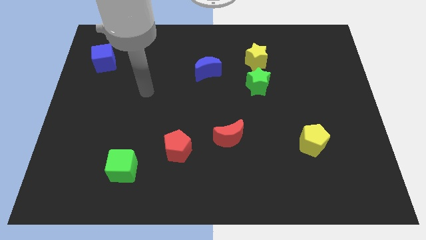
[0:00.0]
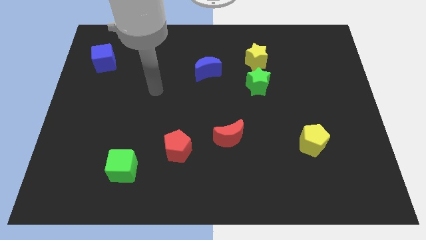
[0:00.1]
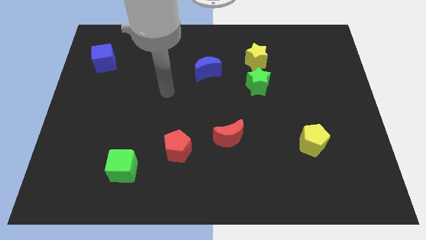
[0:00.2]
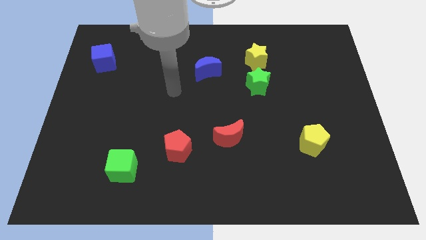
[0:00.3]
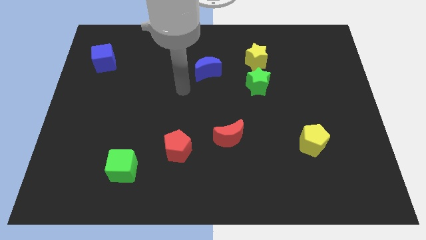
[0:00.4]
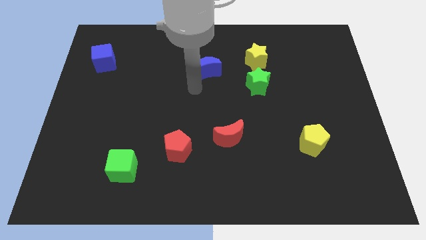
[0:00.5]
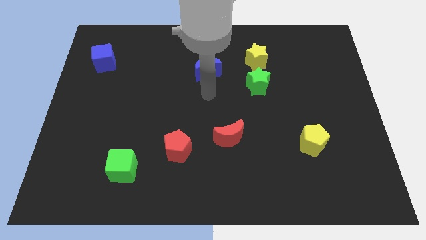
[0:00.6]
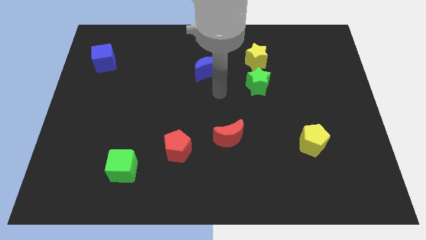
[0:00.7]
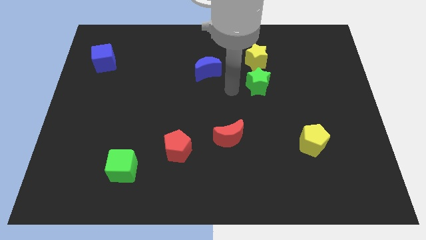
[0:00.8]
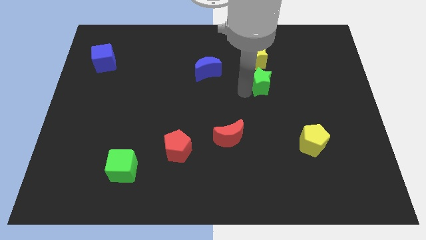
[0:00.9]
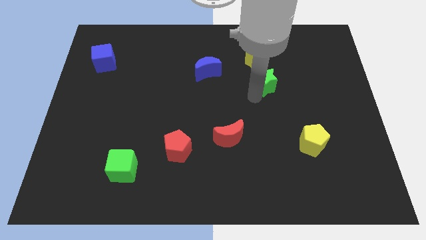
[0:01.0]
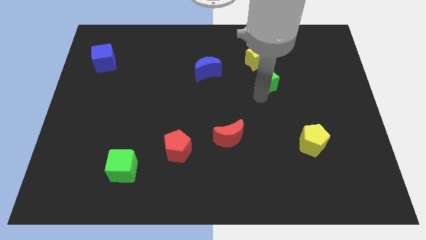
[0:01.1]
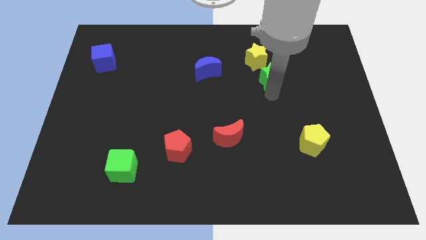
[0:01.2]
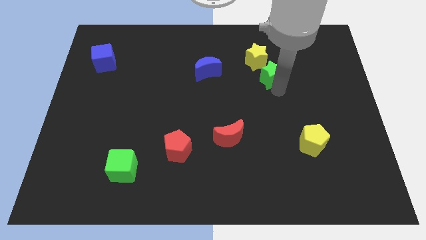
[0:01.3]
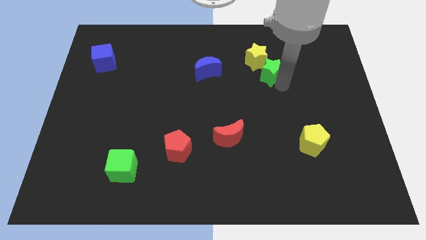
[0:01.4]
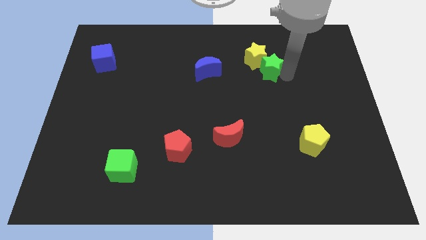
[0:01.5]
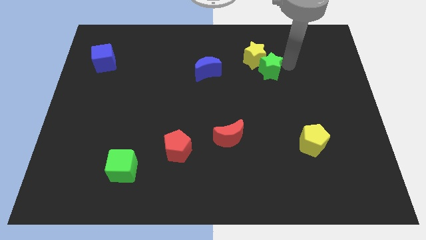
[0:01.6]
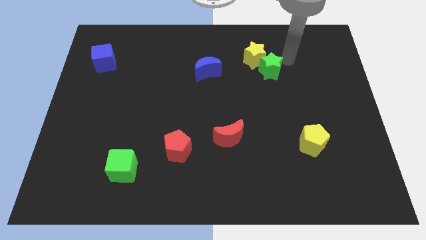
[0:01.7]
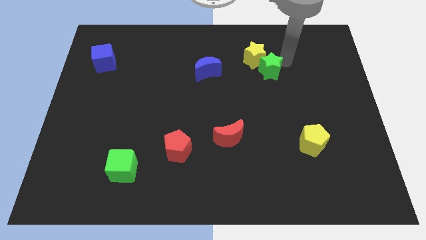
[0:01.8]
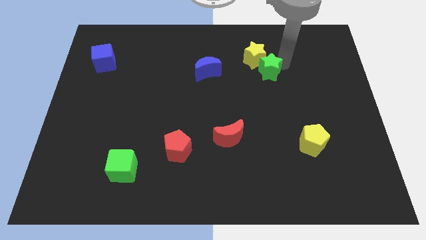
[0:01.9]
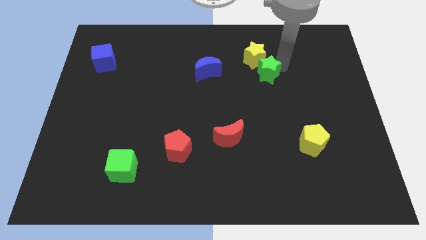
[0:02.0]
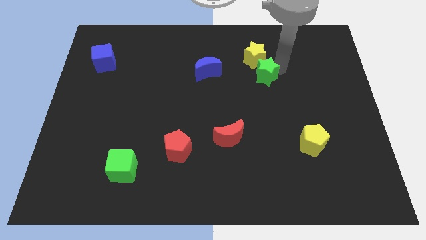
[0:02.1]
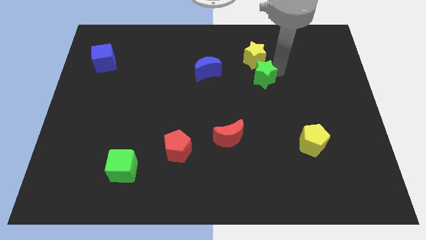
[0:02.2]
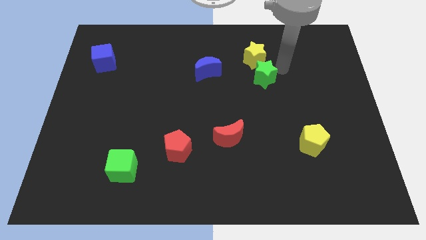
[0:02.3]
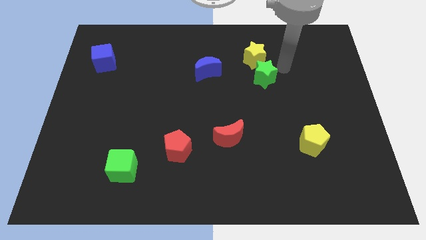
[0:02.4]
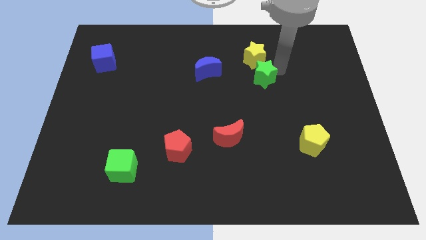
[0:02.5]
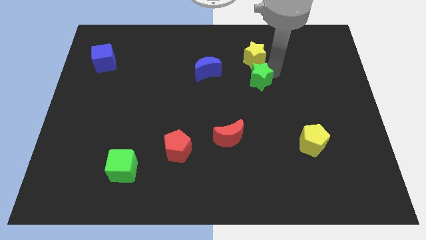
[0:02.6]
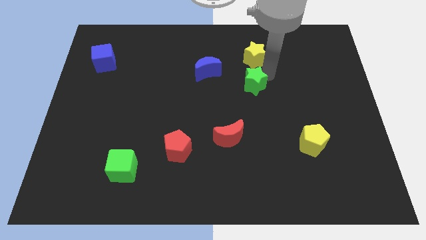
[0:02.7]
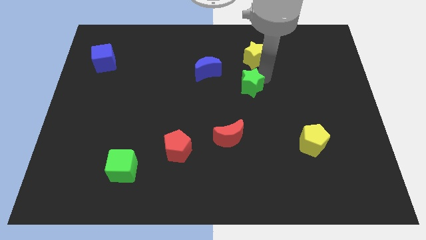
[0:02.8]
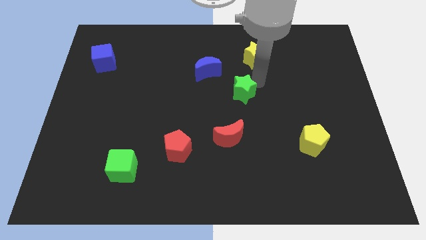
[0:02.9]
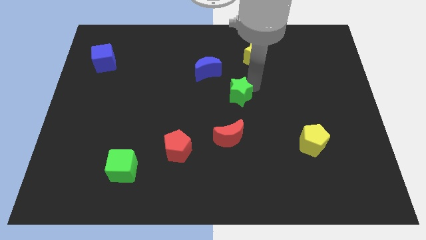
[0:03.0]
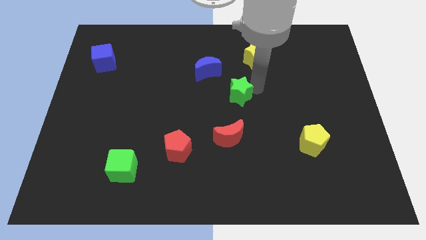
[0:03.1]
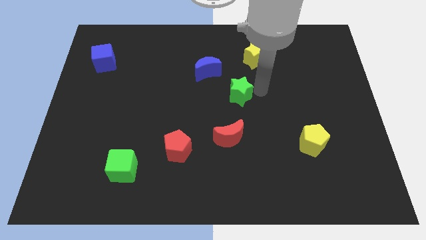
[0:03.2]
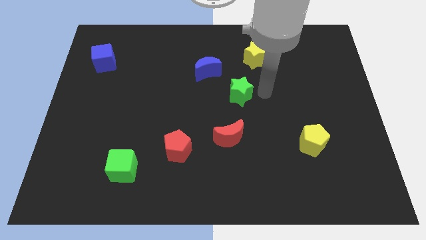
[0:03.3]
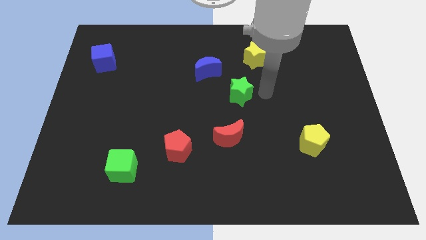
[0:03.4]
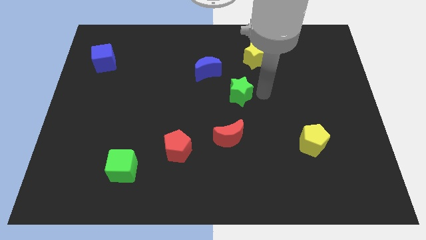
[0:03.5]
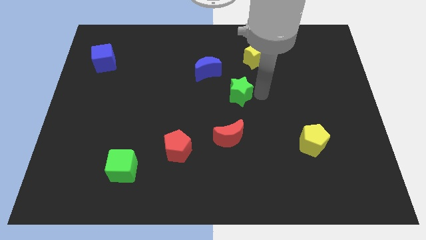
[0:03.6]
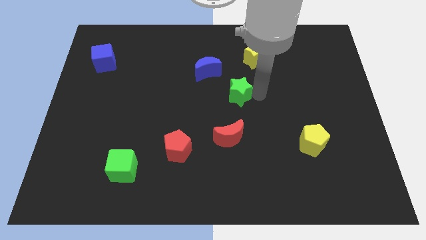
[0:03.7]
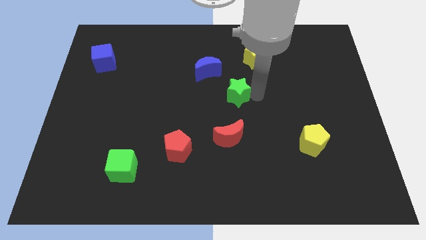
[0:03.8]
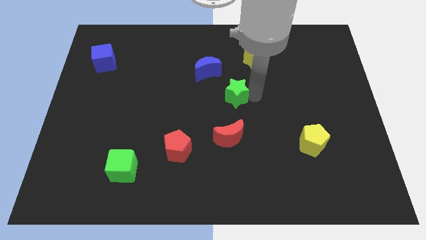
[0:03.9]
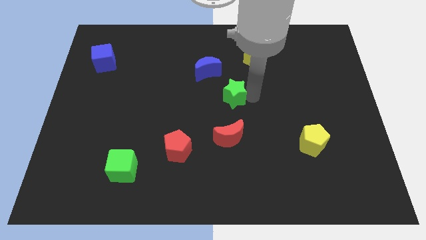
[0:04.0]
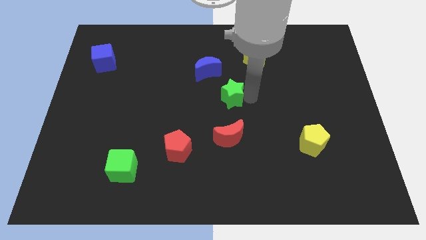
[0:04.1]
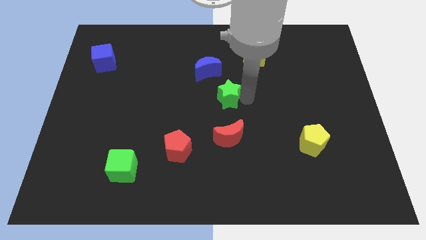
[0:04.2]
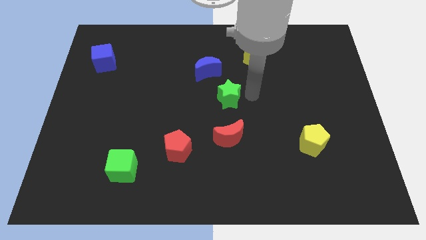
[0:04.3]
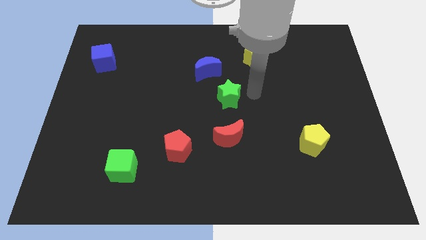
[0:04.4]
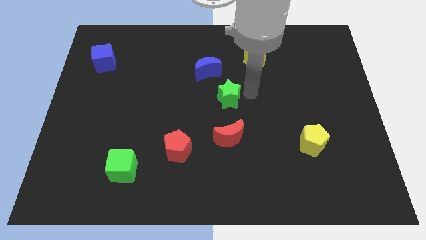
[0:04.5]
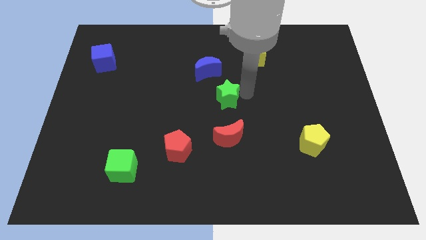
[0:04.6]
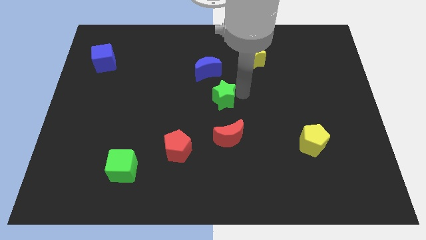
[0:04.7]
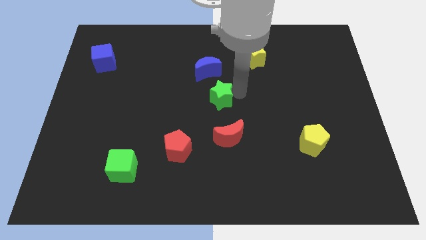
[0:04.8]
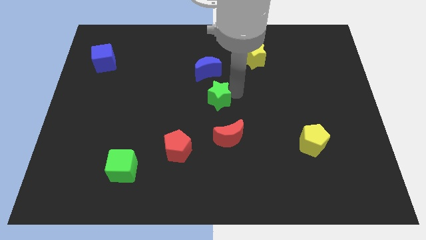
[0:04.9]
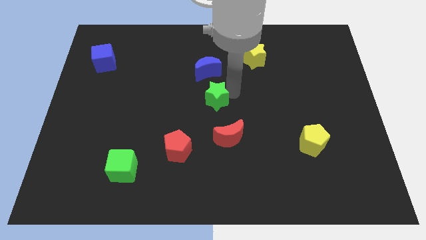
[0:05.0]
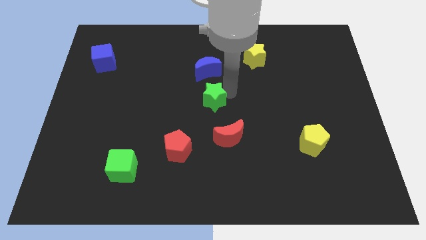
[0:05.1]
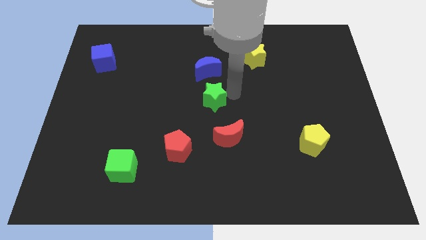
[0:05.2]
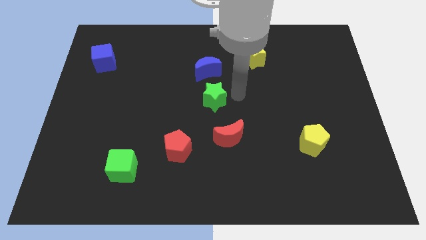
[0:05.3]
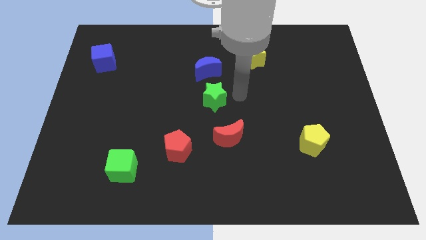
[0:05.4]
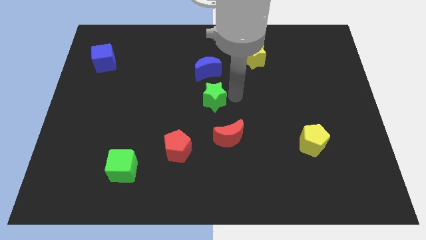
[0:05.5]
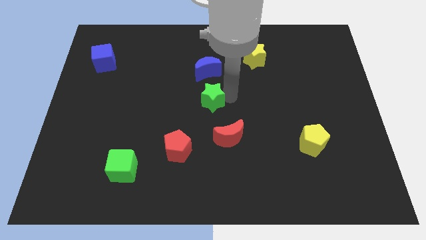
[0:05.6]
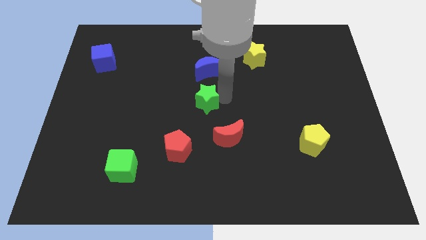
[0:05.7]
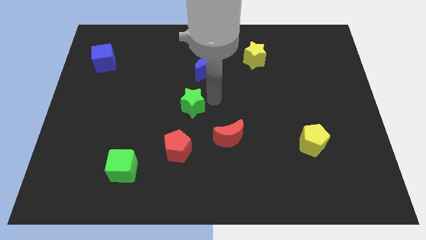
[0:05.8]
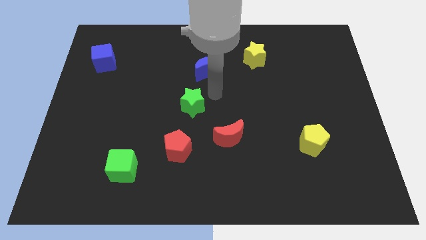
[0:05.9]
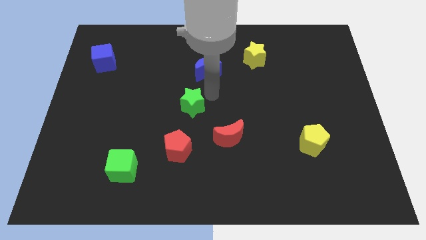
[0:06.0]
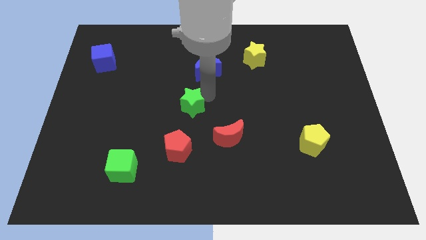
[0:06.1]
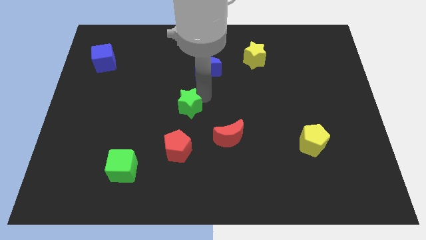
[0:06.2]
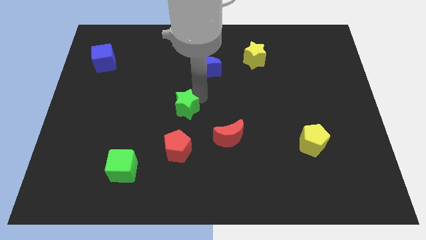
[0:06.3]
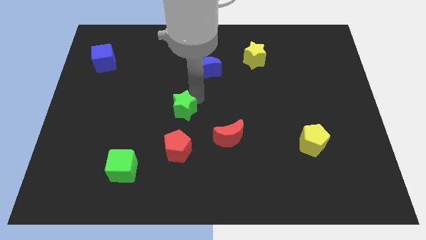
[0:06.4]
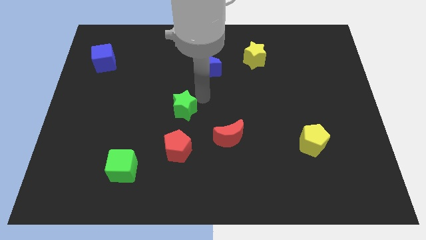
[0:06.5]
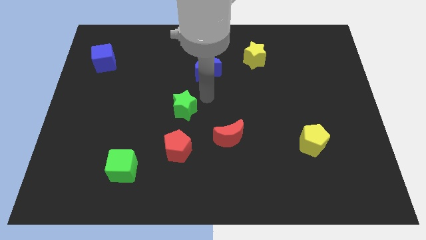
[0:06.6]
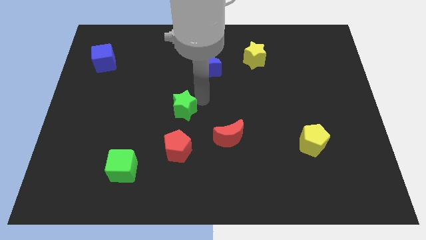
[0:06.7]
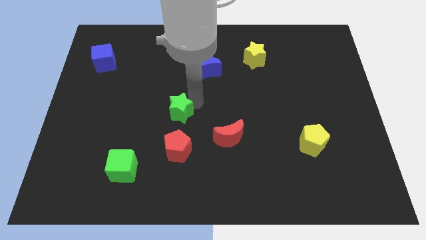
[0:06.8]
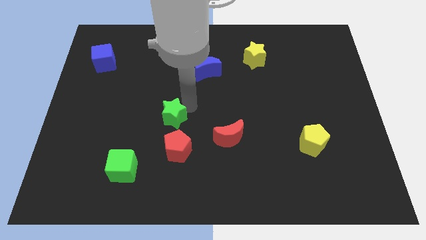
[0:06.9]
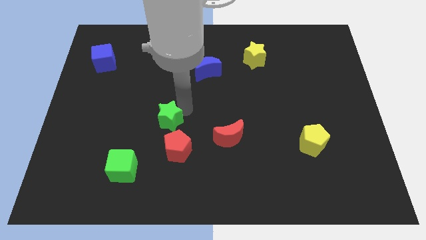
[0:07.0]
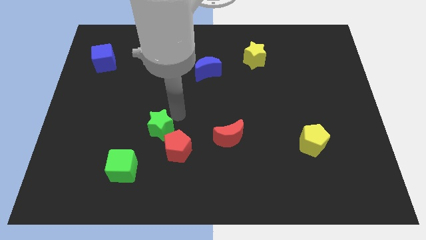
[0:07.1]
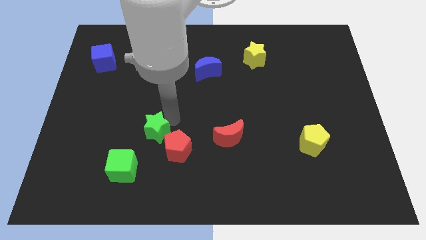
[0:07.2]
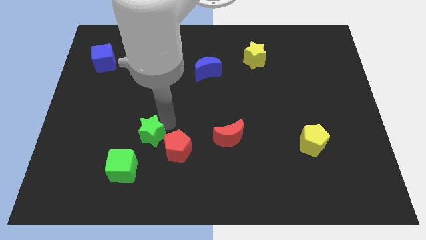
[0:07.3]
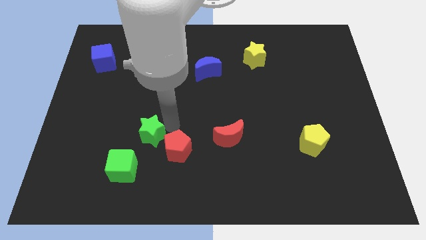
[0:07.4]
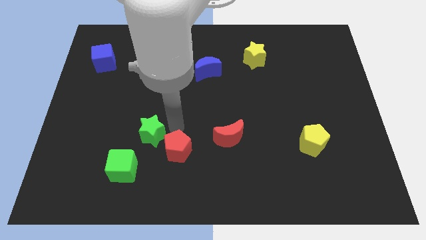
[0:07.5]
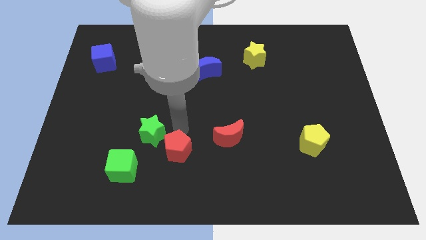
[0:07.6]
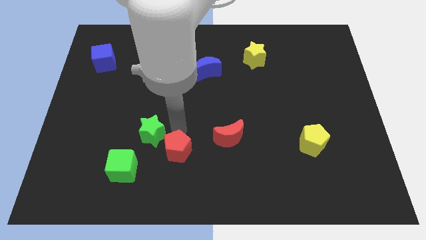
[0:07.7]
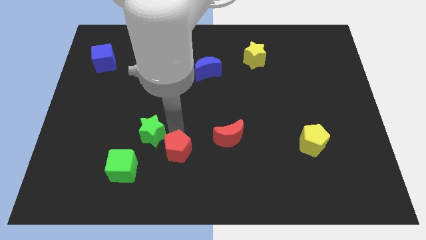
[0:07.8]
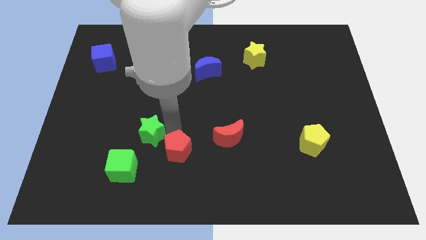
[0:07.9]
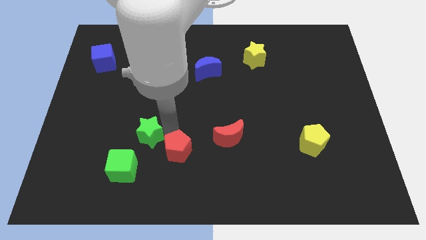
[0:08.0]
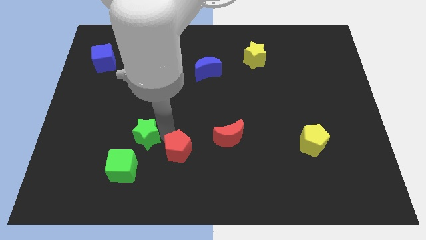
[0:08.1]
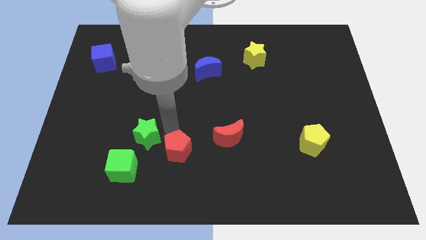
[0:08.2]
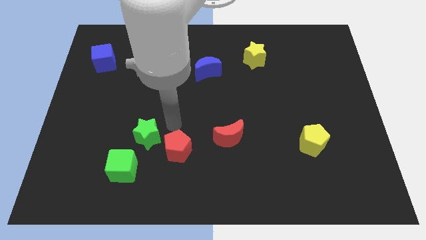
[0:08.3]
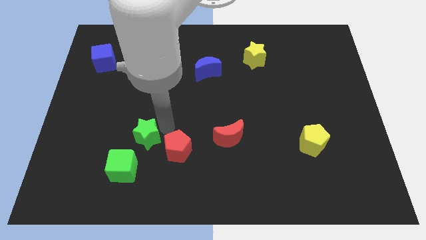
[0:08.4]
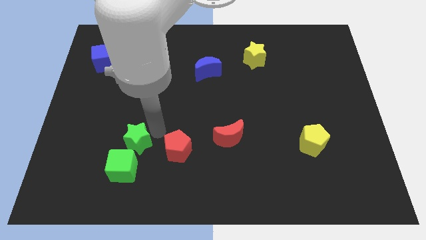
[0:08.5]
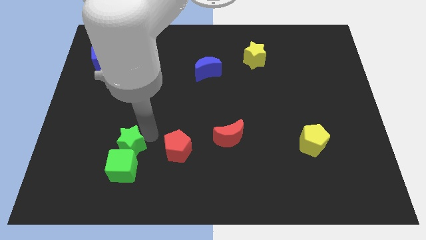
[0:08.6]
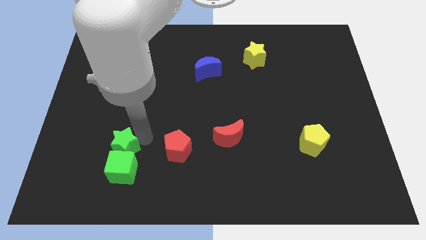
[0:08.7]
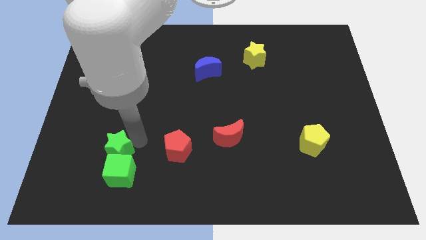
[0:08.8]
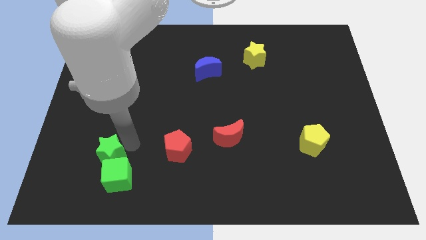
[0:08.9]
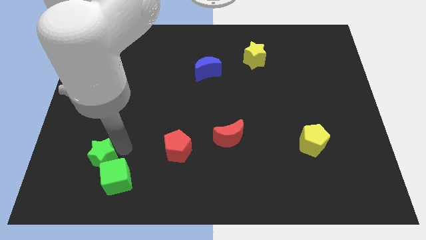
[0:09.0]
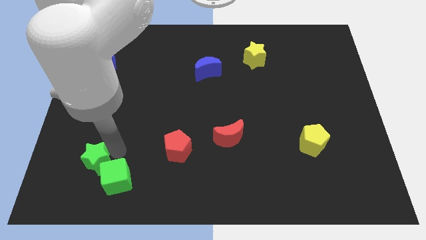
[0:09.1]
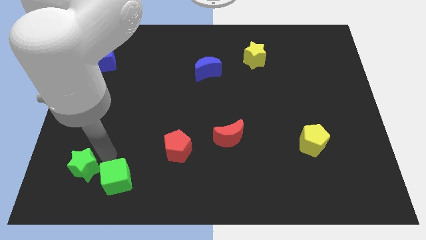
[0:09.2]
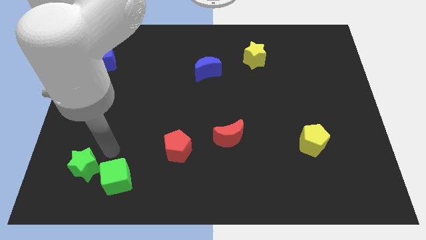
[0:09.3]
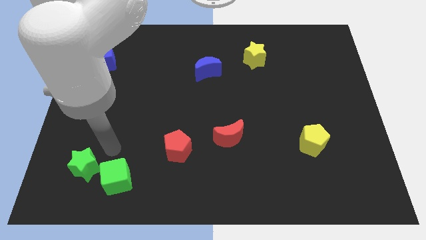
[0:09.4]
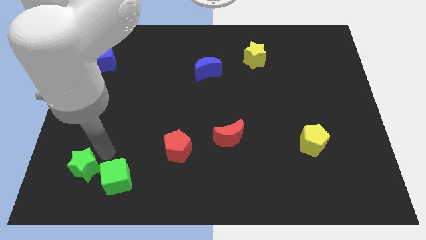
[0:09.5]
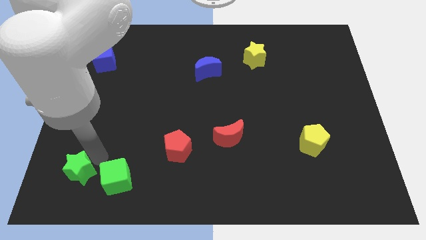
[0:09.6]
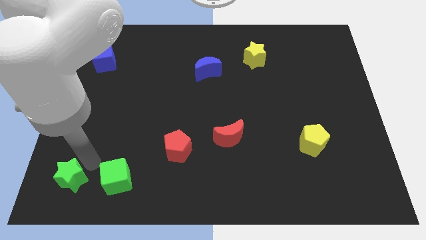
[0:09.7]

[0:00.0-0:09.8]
push the green star to the bottom left of the board
